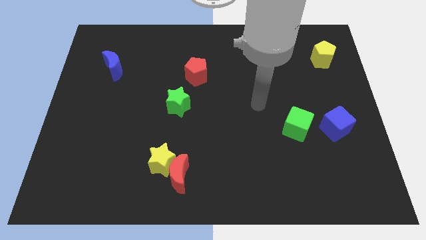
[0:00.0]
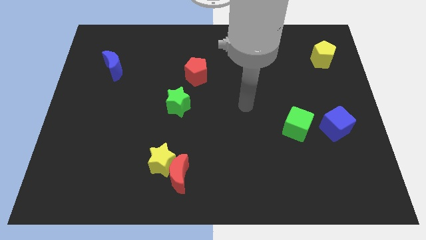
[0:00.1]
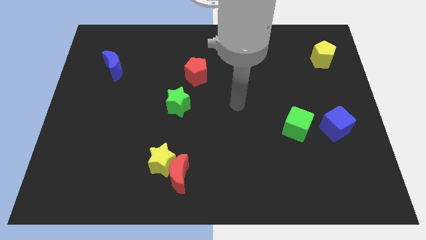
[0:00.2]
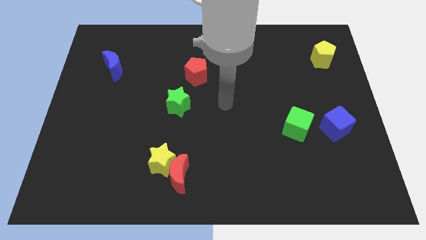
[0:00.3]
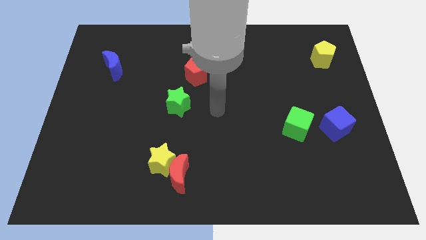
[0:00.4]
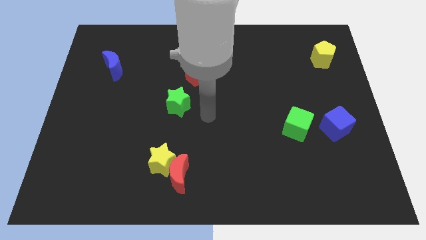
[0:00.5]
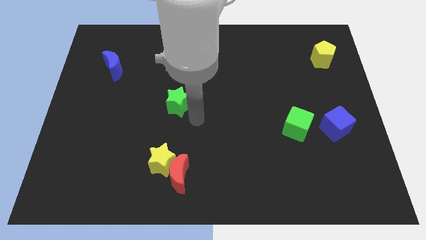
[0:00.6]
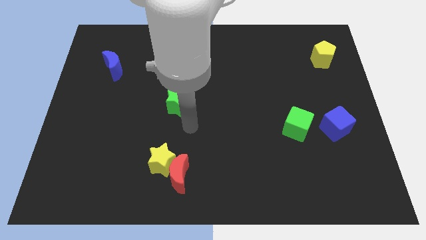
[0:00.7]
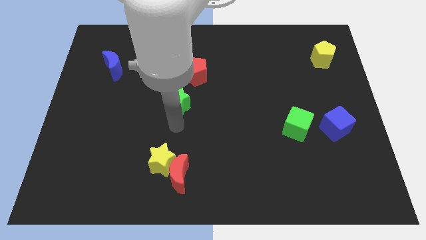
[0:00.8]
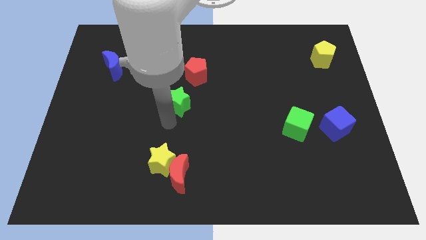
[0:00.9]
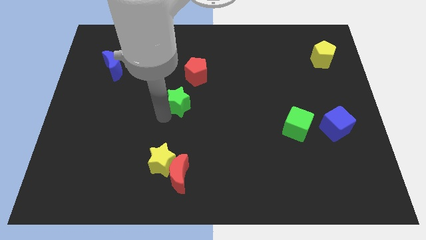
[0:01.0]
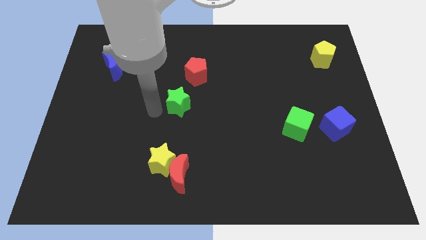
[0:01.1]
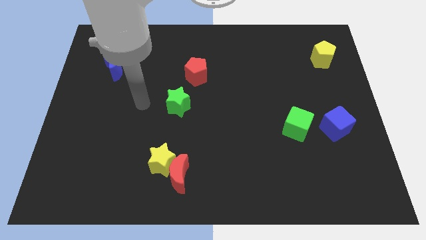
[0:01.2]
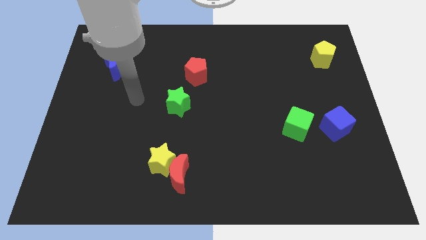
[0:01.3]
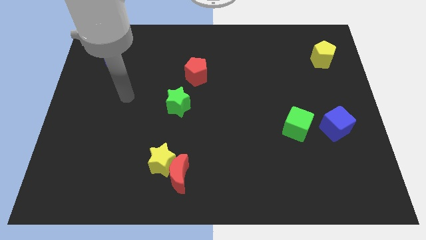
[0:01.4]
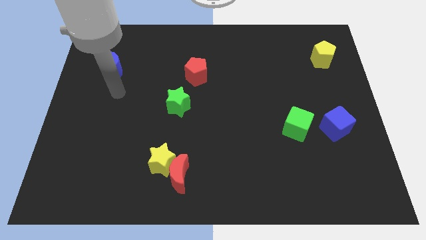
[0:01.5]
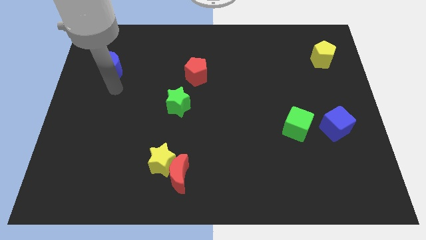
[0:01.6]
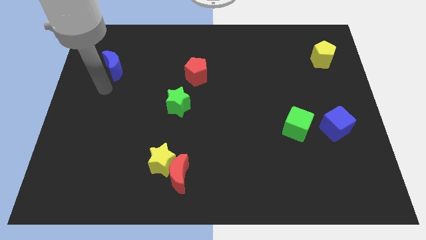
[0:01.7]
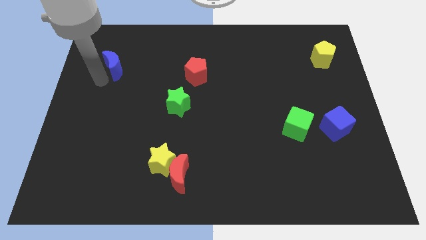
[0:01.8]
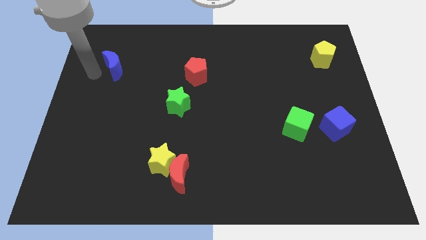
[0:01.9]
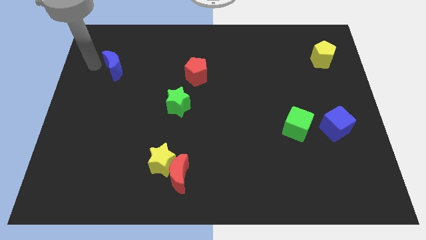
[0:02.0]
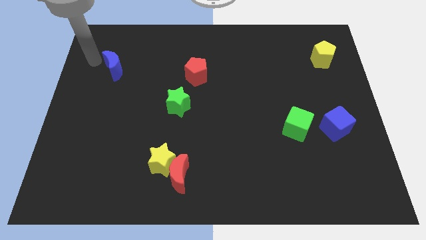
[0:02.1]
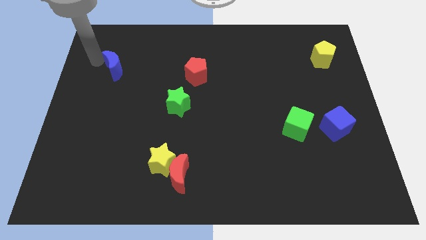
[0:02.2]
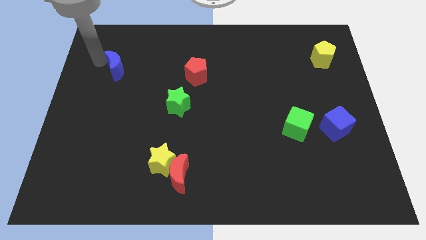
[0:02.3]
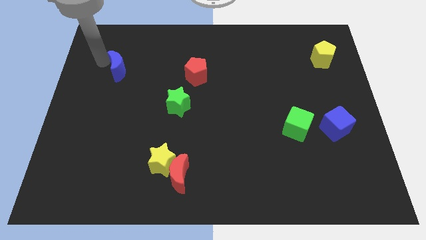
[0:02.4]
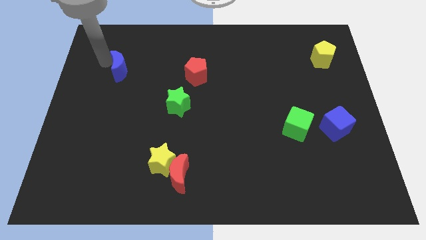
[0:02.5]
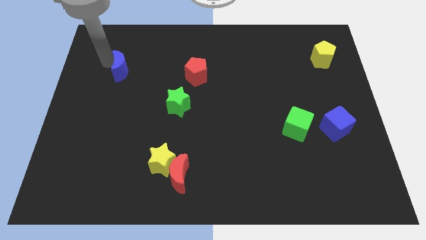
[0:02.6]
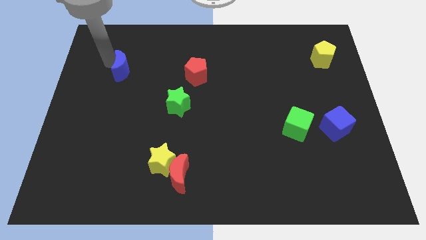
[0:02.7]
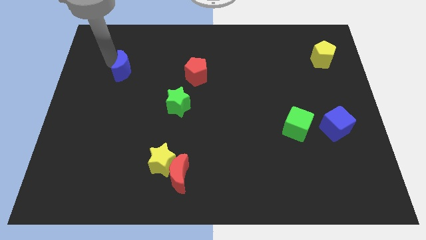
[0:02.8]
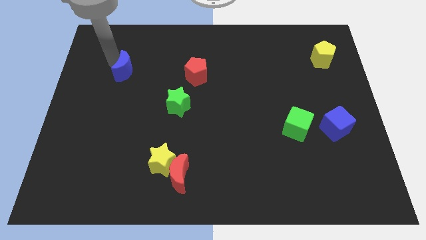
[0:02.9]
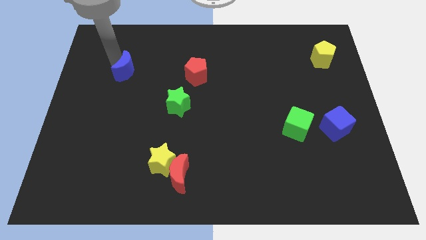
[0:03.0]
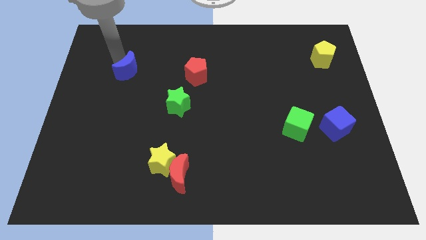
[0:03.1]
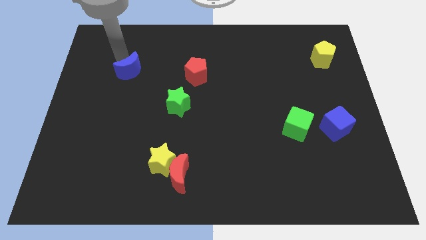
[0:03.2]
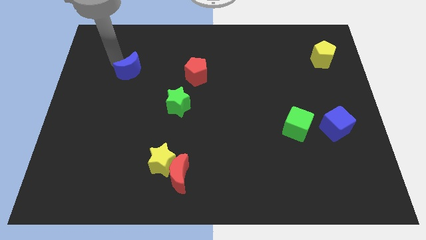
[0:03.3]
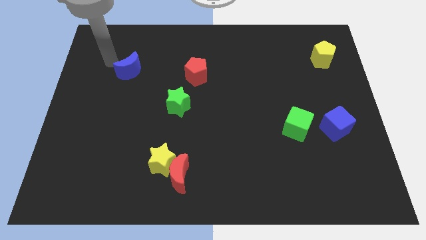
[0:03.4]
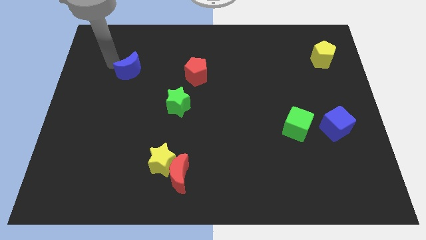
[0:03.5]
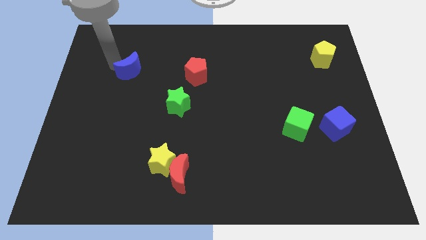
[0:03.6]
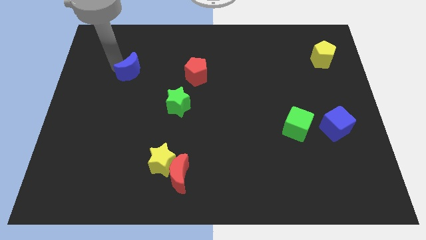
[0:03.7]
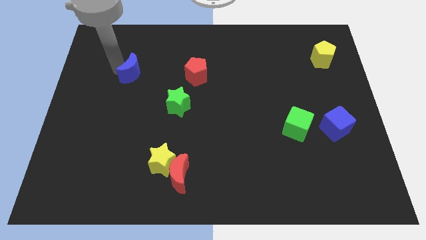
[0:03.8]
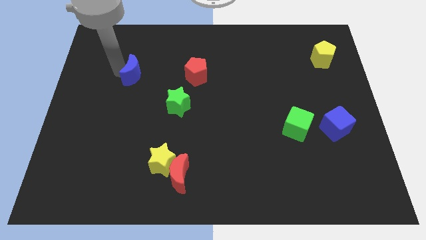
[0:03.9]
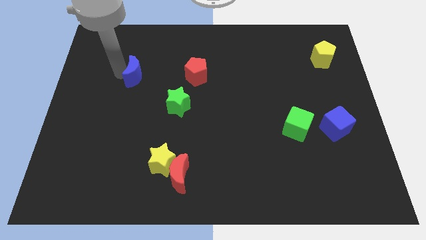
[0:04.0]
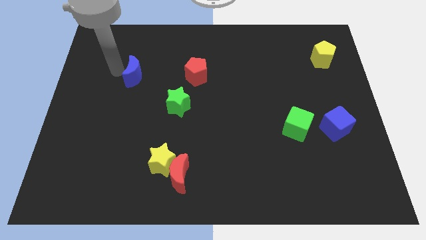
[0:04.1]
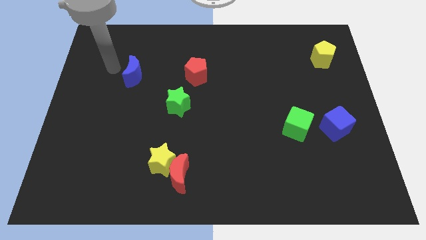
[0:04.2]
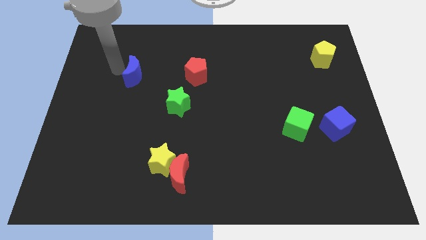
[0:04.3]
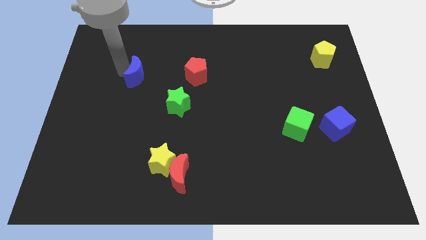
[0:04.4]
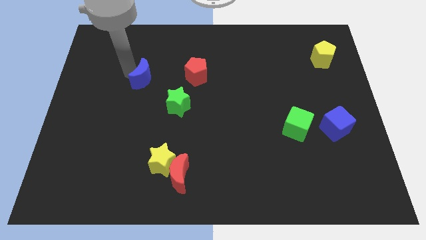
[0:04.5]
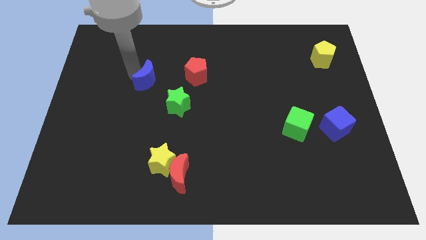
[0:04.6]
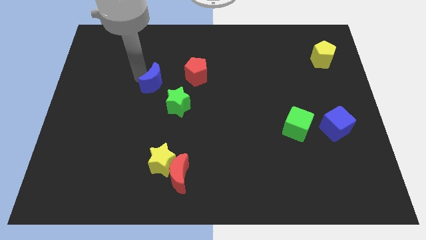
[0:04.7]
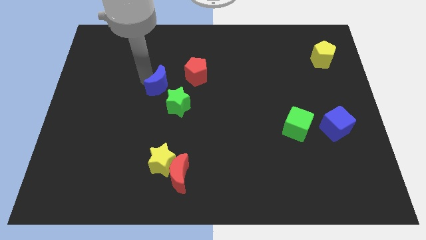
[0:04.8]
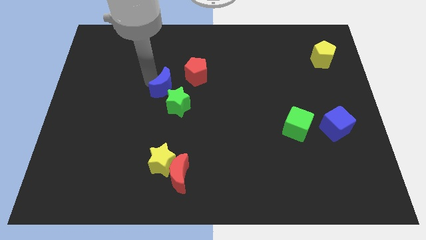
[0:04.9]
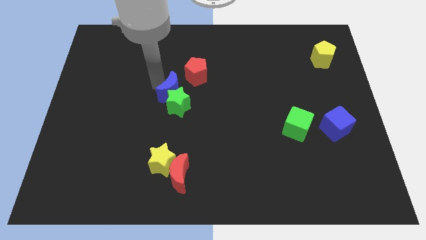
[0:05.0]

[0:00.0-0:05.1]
put the blue moon to the center

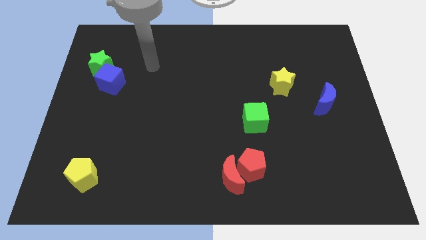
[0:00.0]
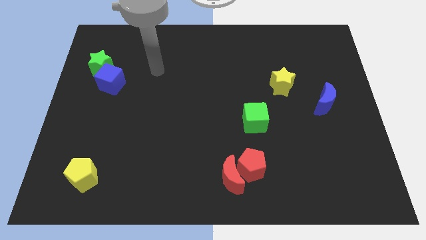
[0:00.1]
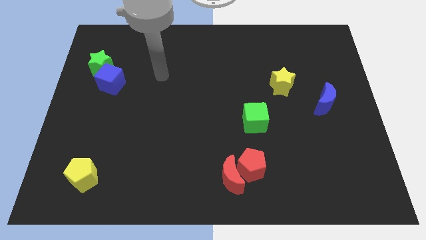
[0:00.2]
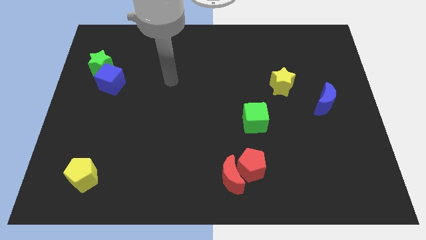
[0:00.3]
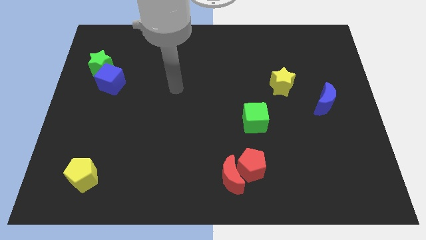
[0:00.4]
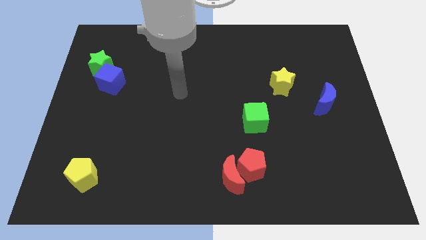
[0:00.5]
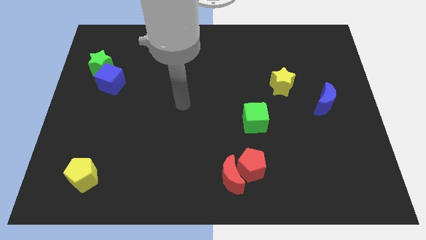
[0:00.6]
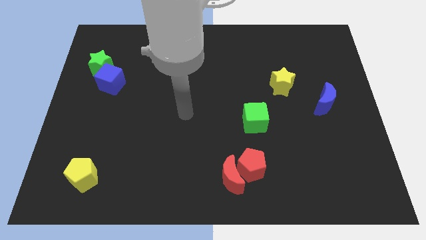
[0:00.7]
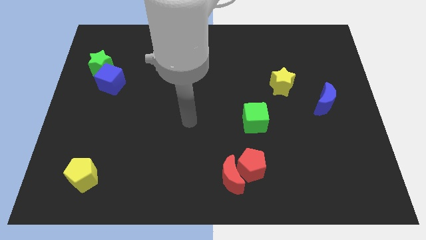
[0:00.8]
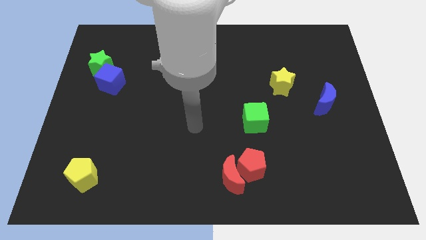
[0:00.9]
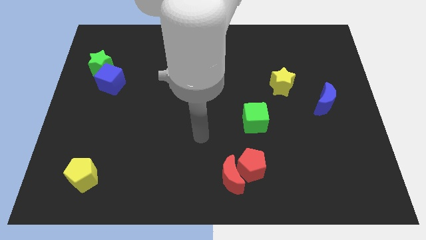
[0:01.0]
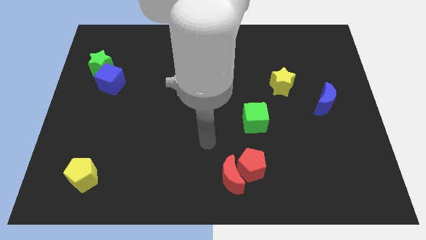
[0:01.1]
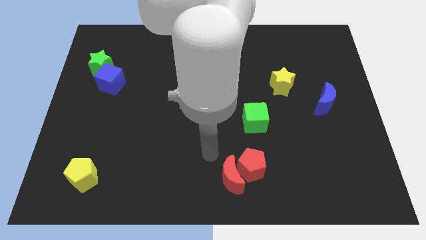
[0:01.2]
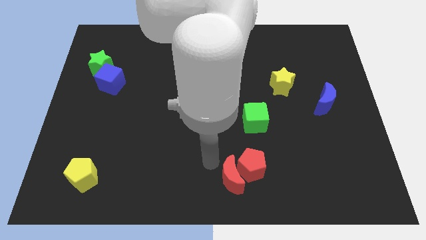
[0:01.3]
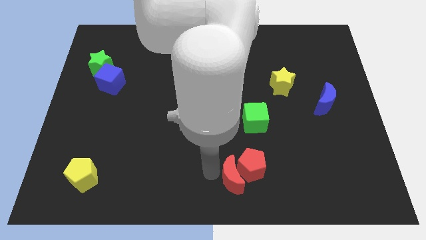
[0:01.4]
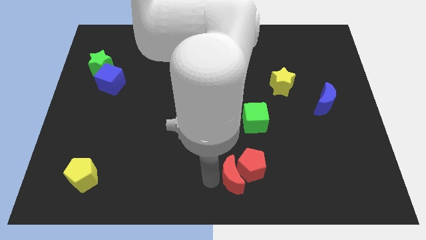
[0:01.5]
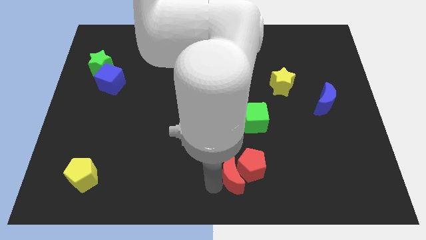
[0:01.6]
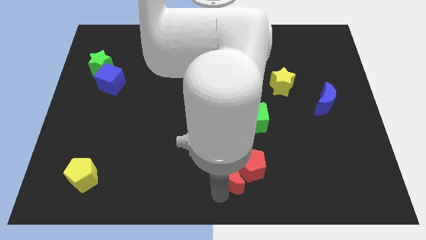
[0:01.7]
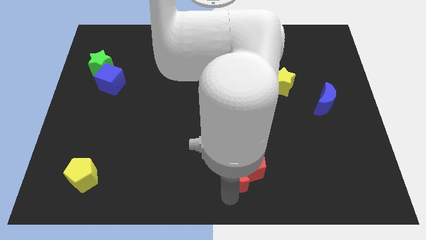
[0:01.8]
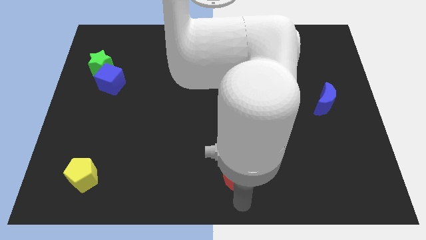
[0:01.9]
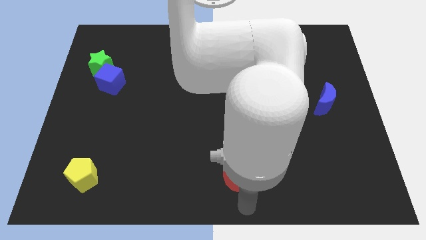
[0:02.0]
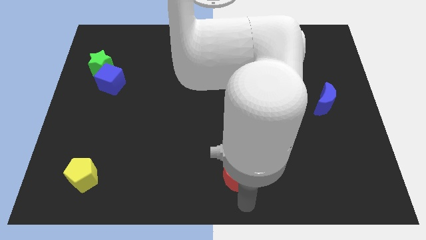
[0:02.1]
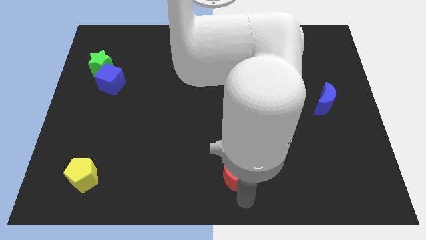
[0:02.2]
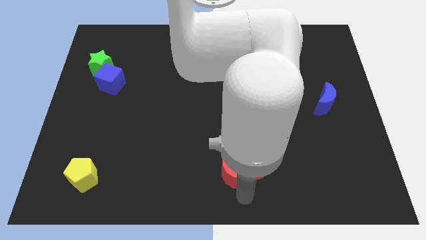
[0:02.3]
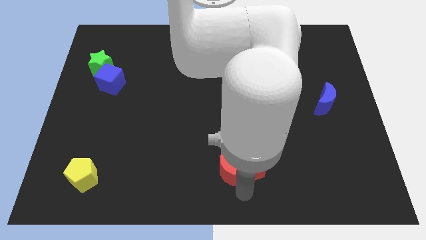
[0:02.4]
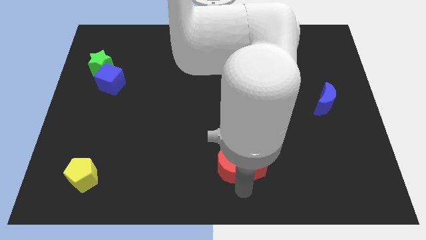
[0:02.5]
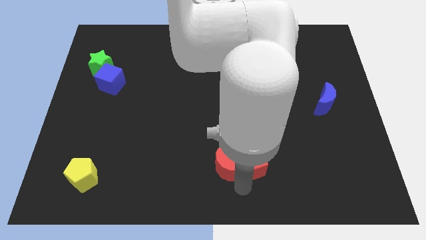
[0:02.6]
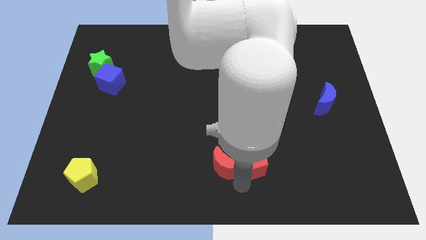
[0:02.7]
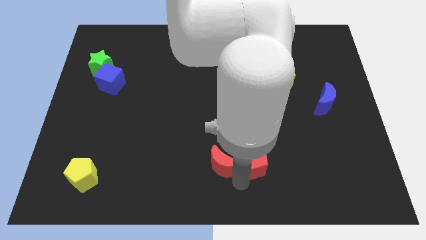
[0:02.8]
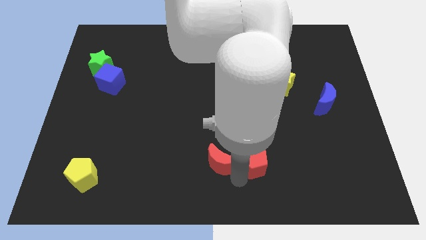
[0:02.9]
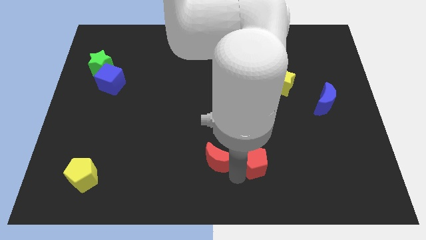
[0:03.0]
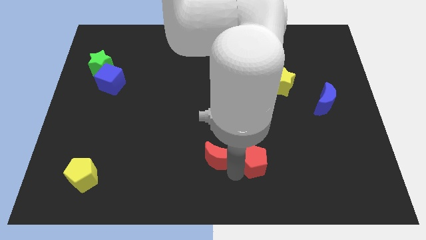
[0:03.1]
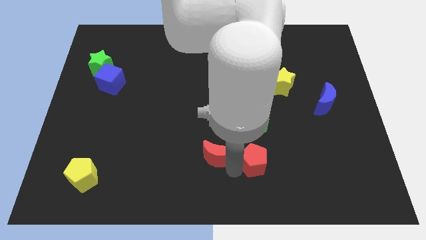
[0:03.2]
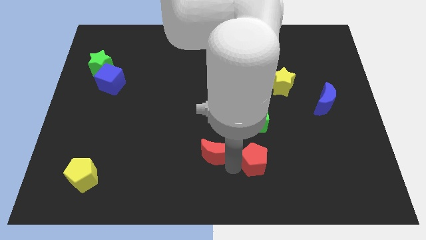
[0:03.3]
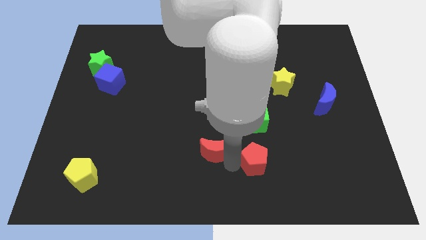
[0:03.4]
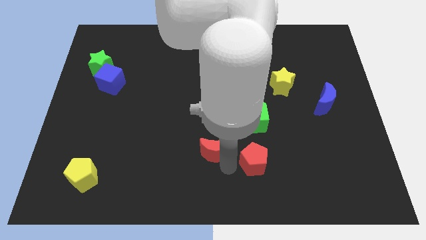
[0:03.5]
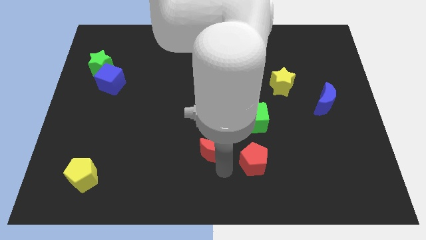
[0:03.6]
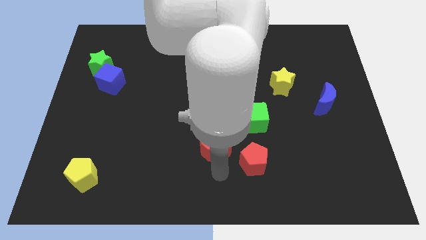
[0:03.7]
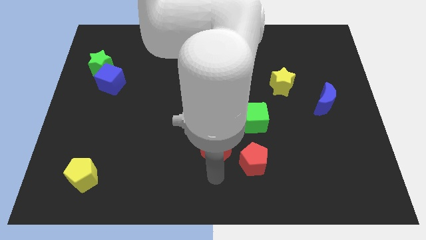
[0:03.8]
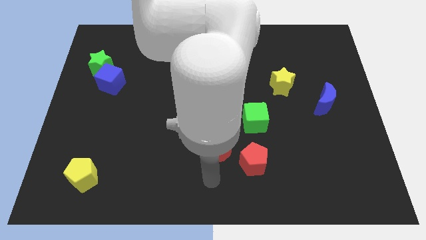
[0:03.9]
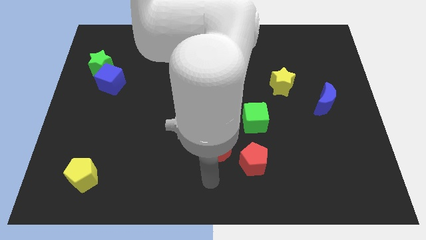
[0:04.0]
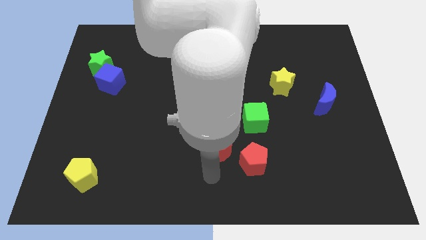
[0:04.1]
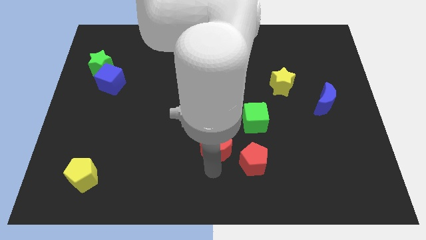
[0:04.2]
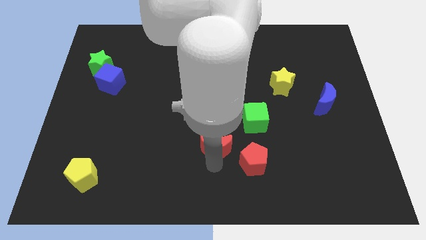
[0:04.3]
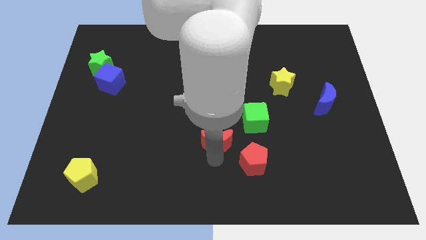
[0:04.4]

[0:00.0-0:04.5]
put the red moon to the center
